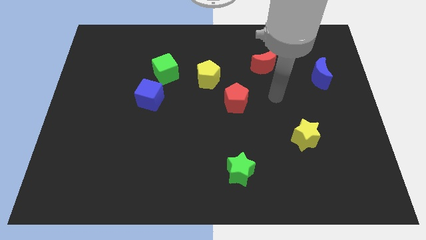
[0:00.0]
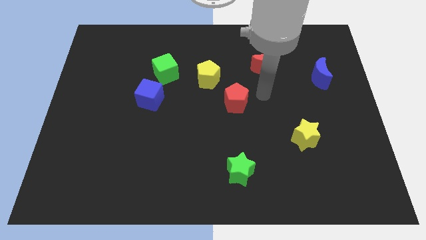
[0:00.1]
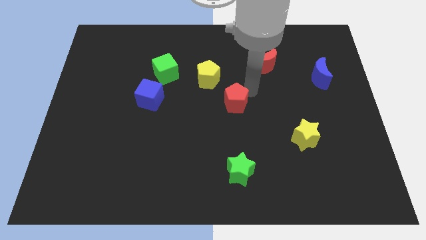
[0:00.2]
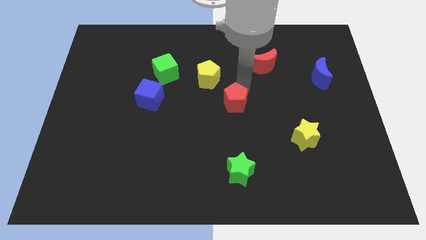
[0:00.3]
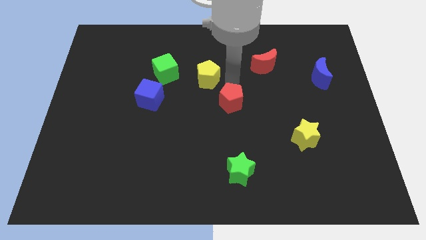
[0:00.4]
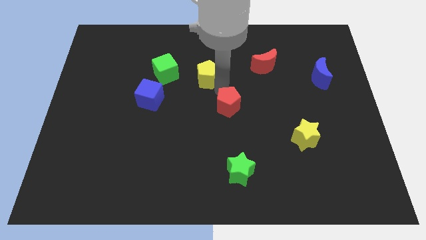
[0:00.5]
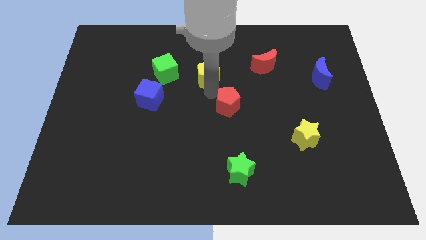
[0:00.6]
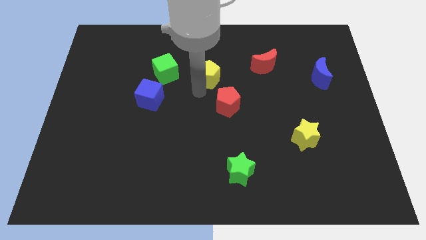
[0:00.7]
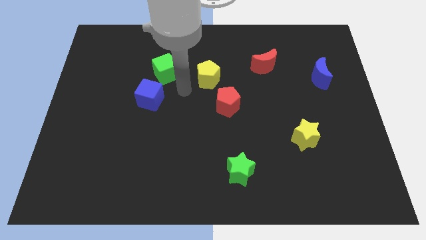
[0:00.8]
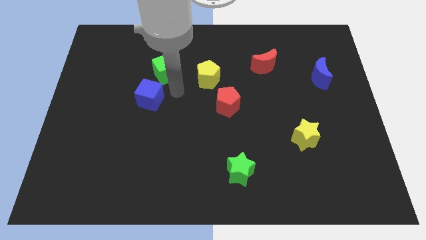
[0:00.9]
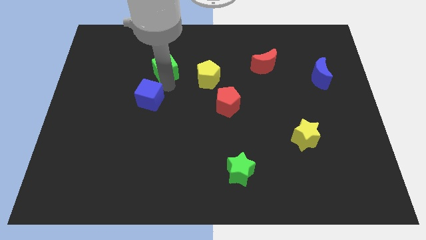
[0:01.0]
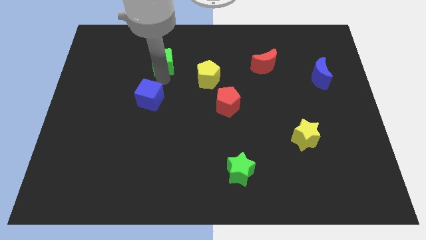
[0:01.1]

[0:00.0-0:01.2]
separate the blue cube from the green cube

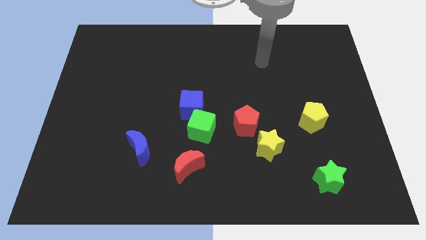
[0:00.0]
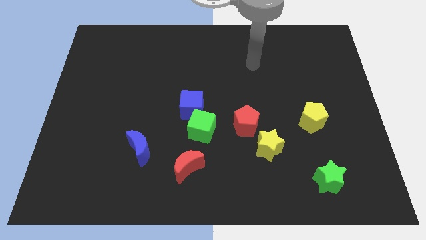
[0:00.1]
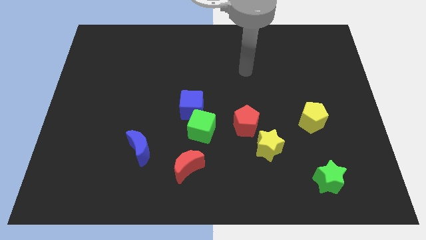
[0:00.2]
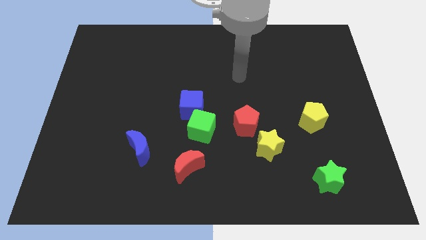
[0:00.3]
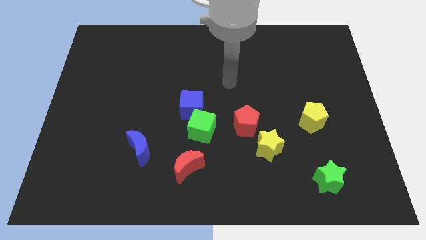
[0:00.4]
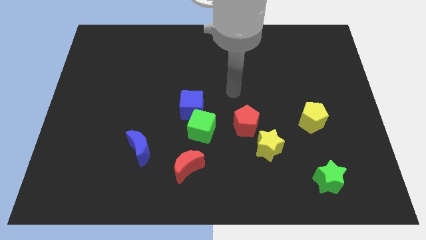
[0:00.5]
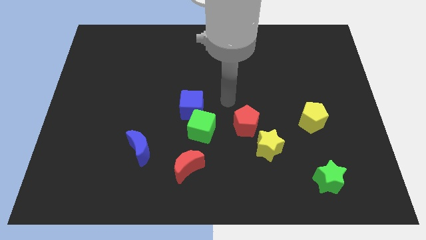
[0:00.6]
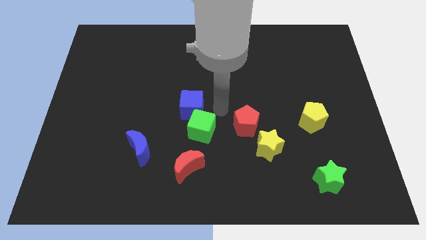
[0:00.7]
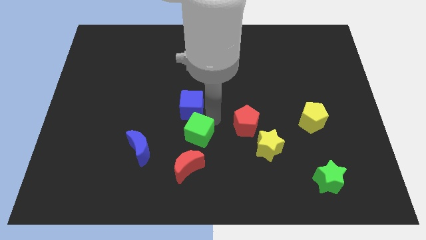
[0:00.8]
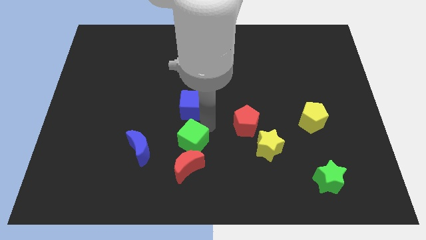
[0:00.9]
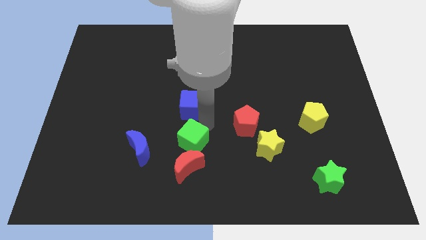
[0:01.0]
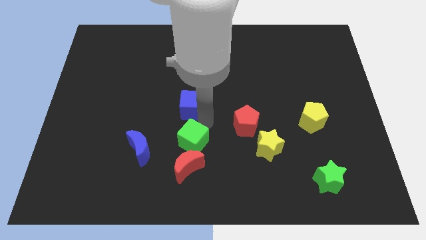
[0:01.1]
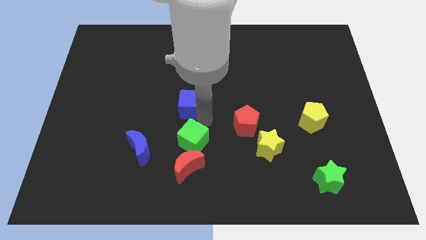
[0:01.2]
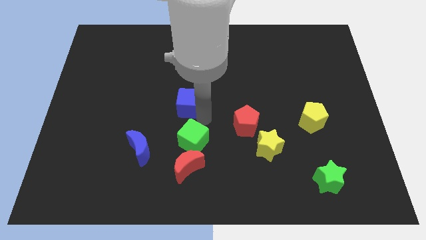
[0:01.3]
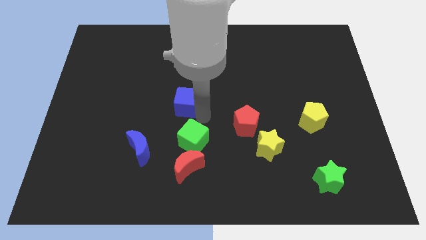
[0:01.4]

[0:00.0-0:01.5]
move the blue cube away from the green cube

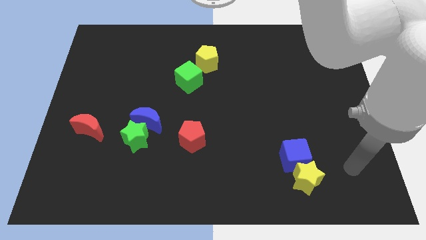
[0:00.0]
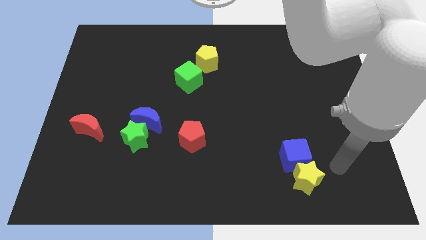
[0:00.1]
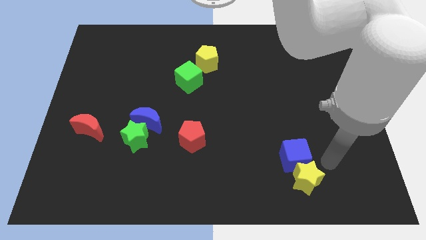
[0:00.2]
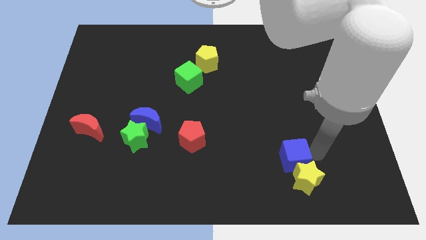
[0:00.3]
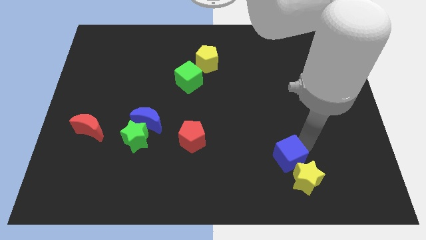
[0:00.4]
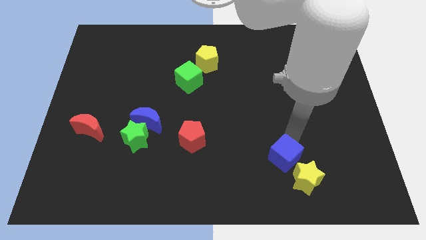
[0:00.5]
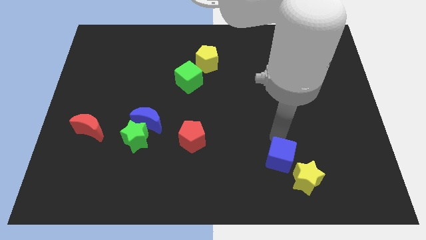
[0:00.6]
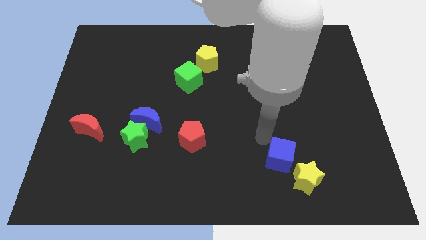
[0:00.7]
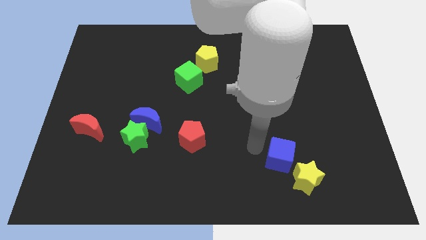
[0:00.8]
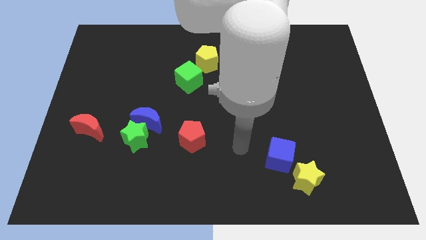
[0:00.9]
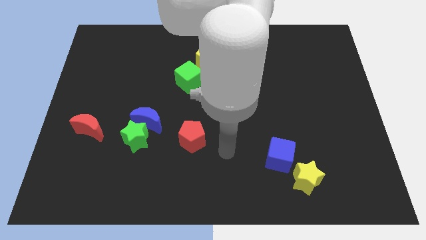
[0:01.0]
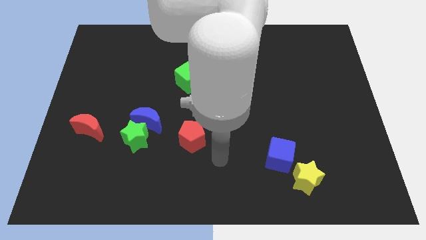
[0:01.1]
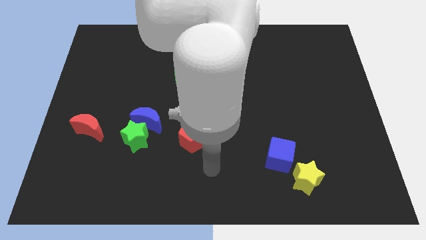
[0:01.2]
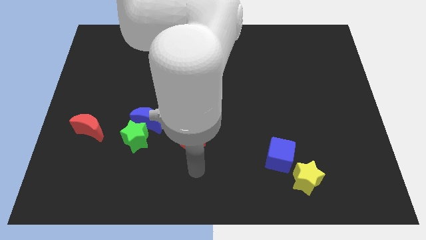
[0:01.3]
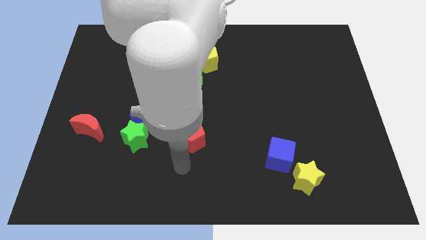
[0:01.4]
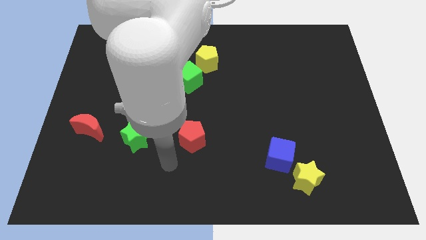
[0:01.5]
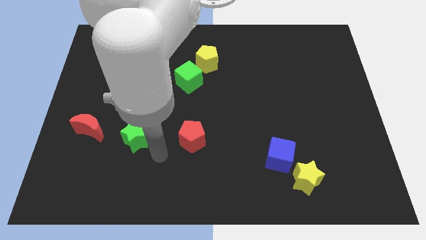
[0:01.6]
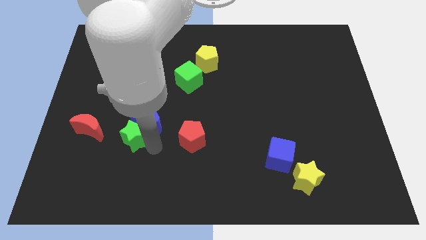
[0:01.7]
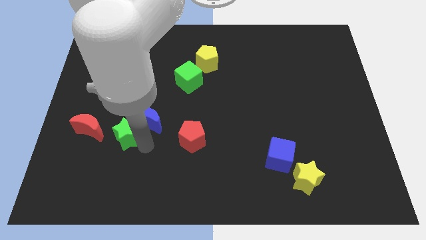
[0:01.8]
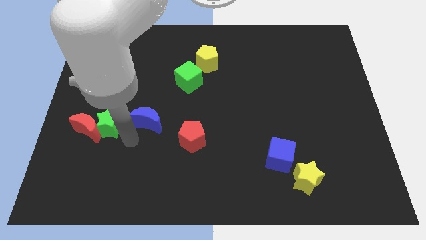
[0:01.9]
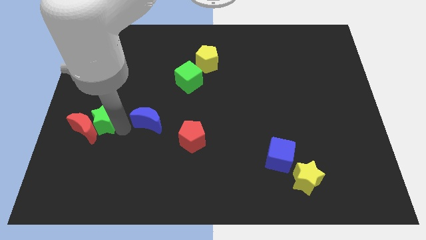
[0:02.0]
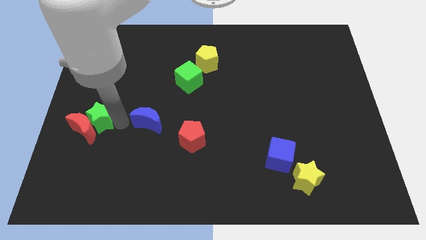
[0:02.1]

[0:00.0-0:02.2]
pull the blue moon apart from the green star

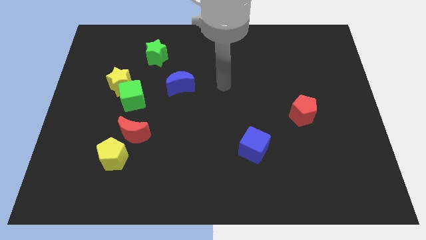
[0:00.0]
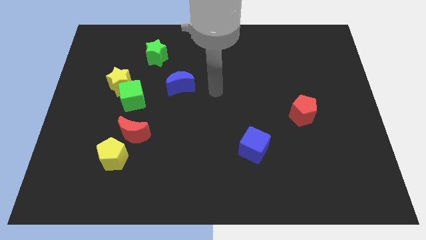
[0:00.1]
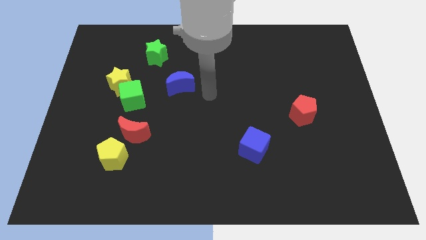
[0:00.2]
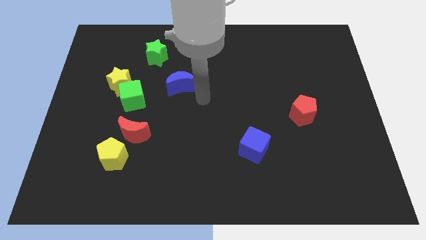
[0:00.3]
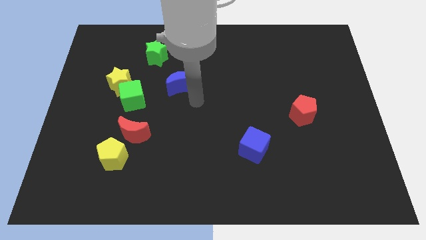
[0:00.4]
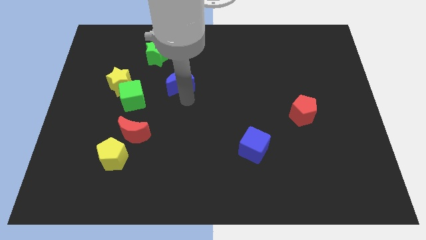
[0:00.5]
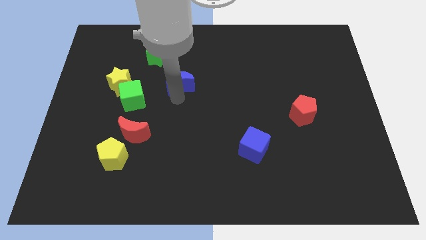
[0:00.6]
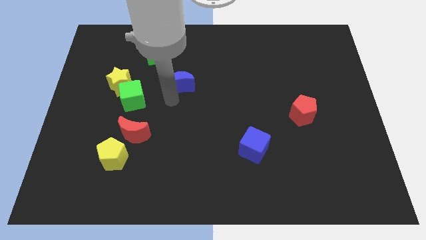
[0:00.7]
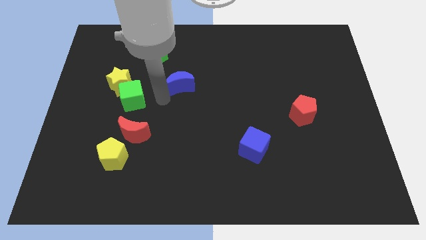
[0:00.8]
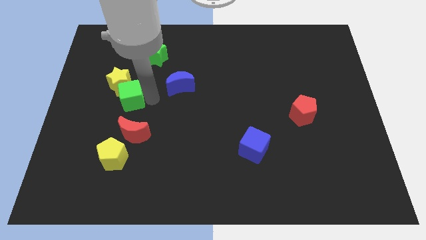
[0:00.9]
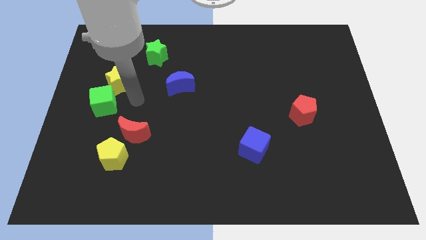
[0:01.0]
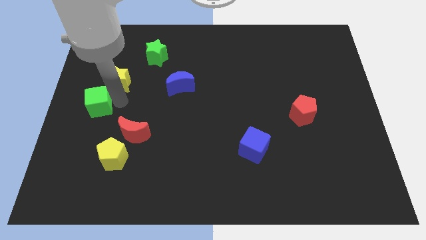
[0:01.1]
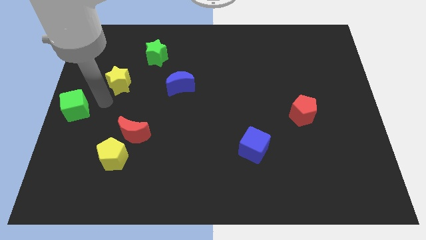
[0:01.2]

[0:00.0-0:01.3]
pull the yellow star apart from the green cube

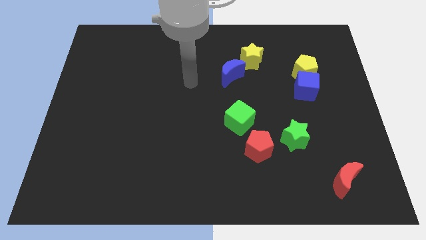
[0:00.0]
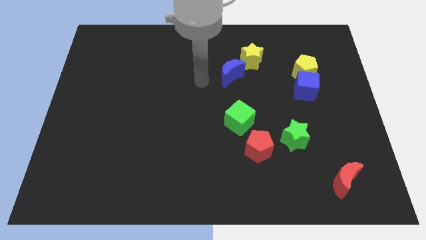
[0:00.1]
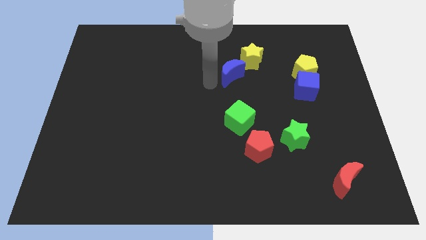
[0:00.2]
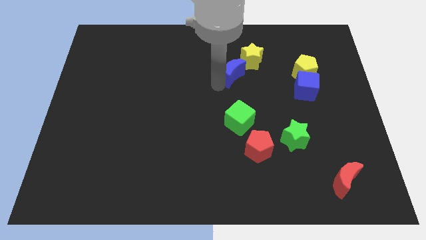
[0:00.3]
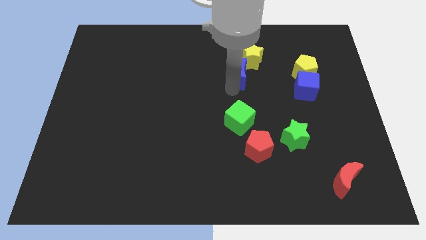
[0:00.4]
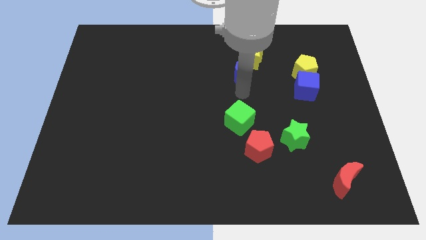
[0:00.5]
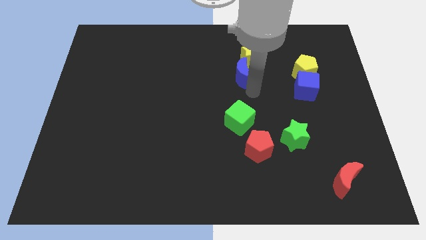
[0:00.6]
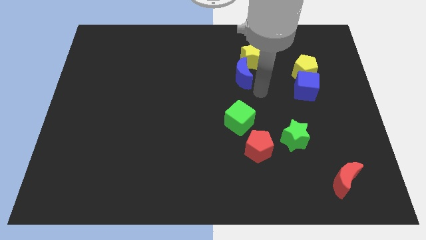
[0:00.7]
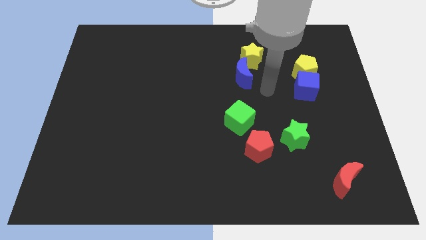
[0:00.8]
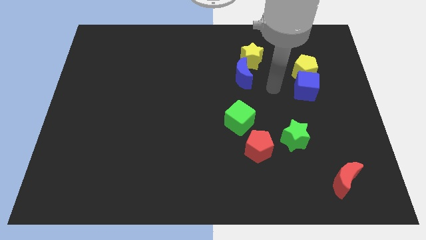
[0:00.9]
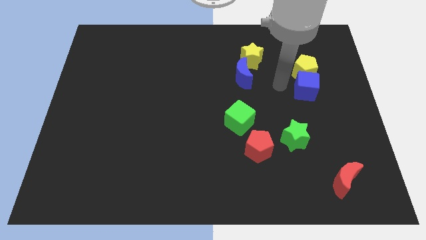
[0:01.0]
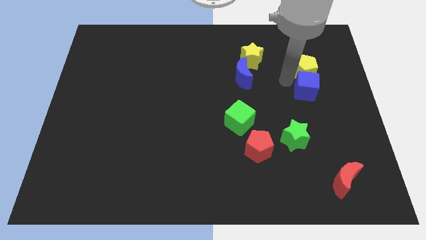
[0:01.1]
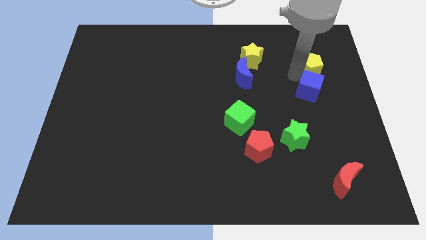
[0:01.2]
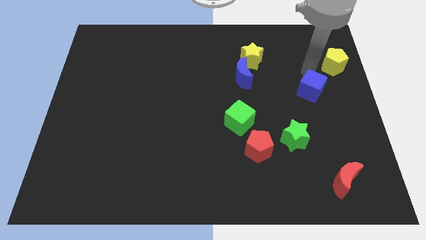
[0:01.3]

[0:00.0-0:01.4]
pull the blue cube apart from the yellow pentagon

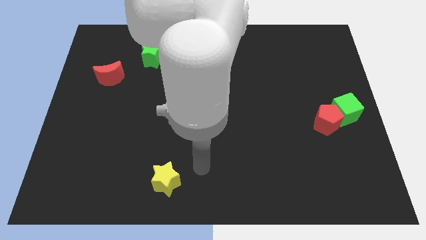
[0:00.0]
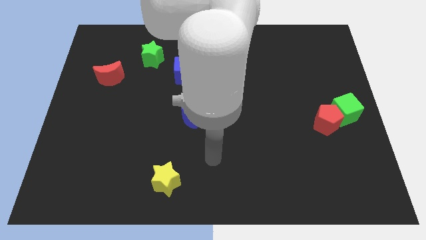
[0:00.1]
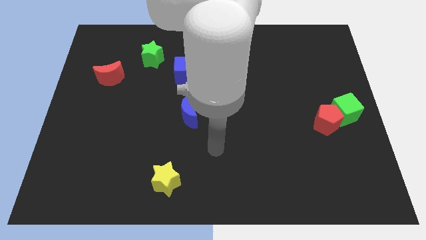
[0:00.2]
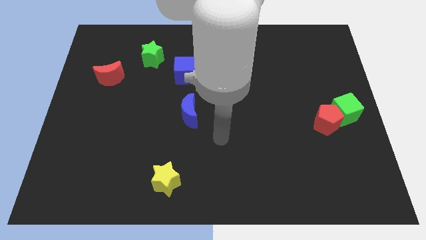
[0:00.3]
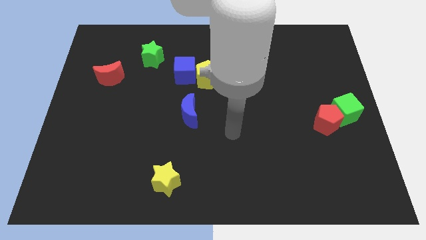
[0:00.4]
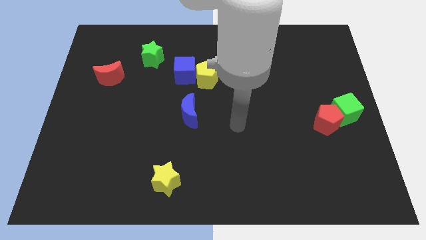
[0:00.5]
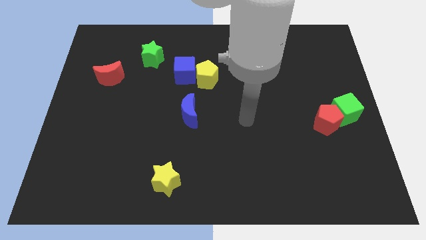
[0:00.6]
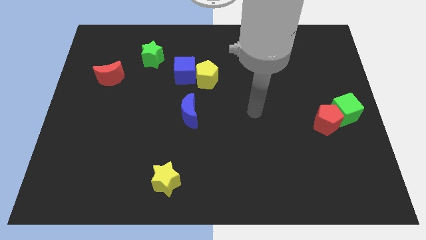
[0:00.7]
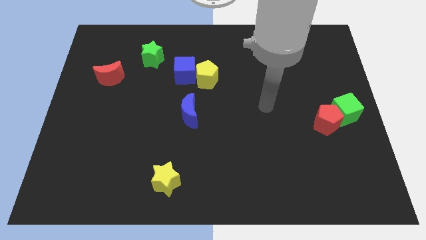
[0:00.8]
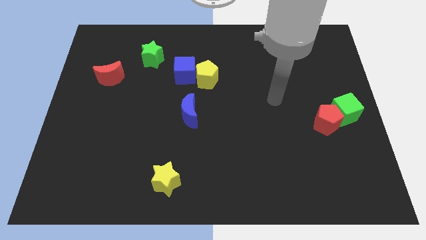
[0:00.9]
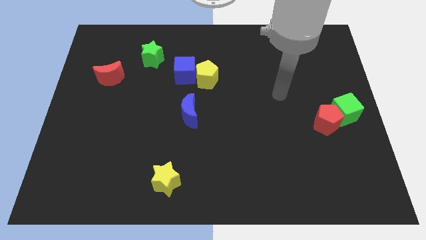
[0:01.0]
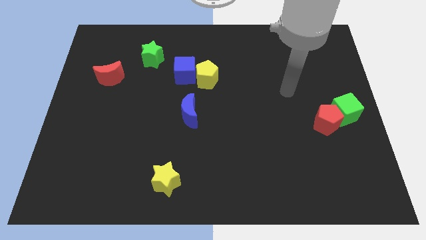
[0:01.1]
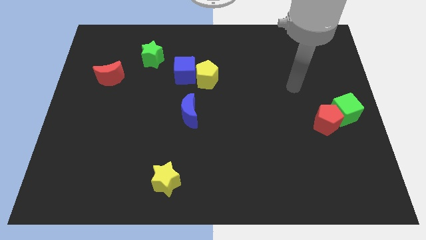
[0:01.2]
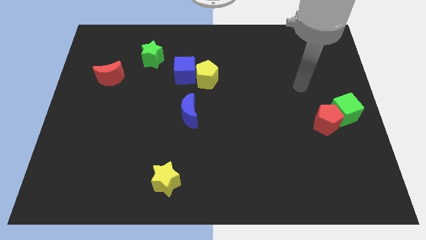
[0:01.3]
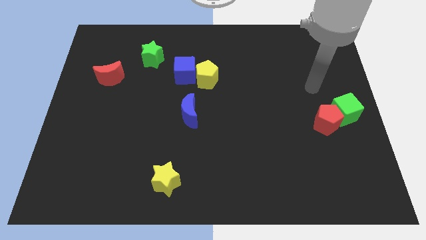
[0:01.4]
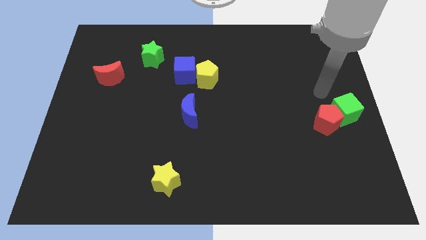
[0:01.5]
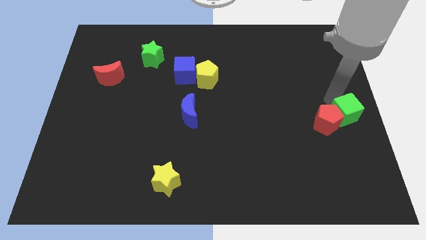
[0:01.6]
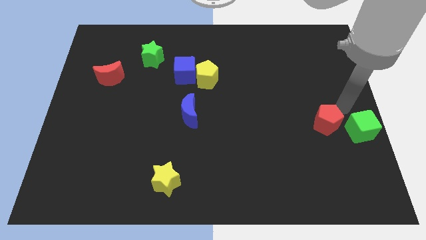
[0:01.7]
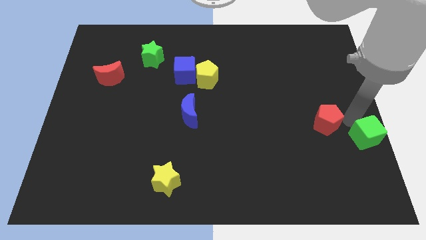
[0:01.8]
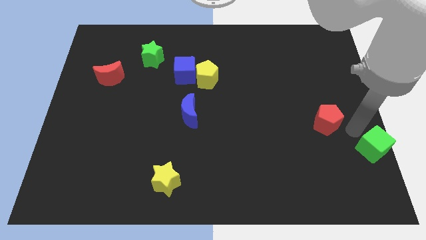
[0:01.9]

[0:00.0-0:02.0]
separate the red pentagon from the green cube
